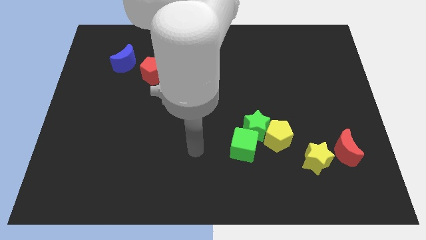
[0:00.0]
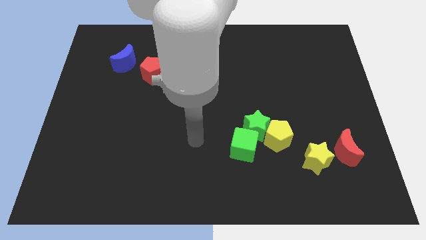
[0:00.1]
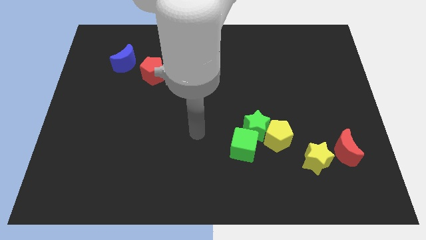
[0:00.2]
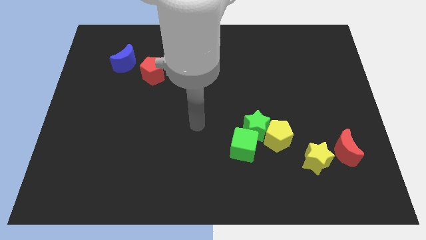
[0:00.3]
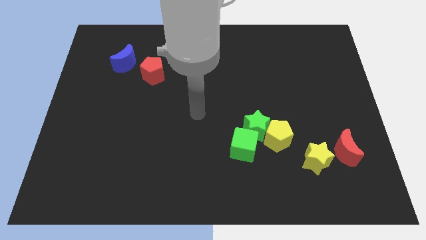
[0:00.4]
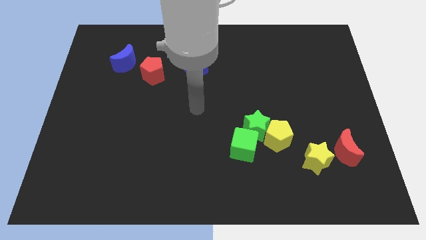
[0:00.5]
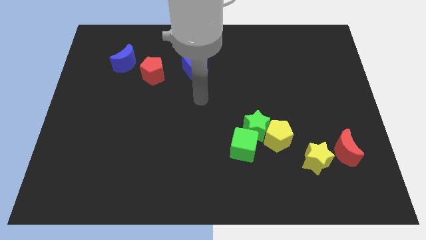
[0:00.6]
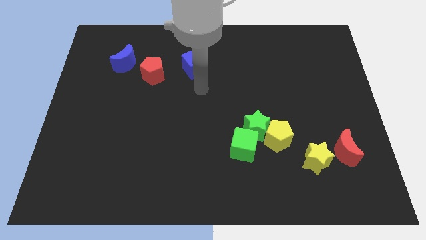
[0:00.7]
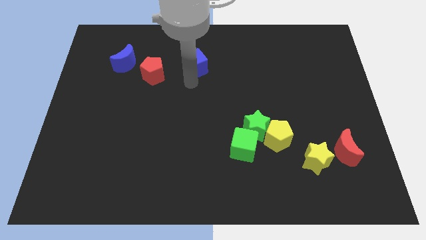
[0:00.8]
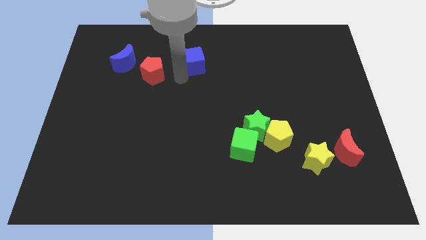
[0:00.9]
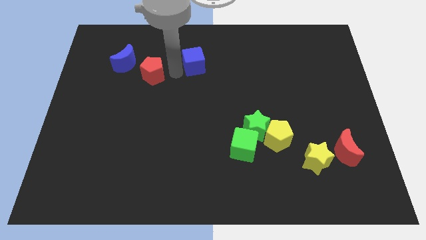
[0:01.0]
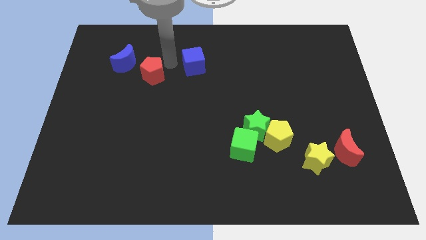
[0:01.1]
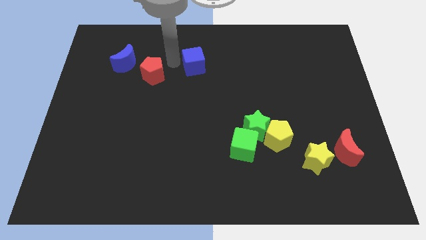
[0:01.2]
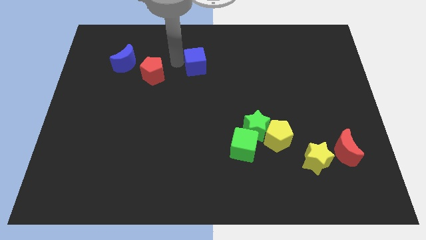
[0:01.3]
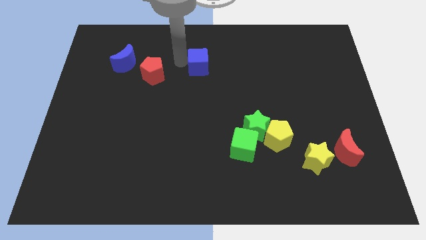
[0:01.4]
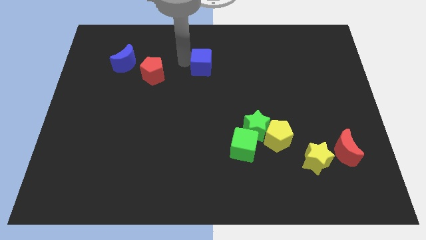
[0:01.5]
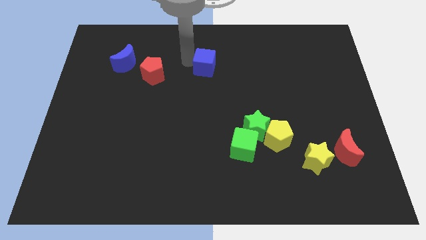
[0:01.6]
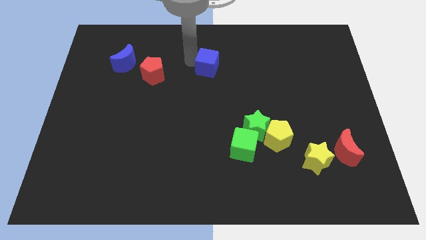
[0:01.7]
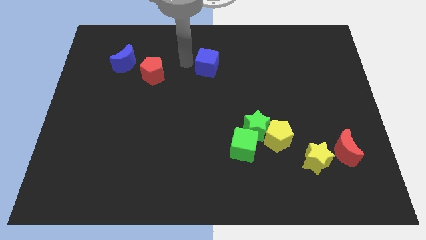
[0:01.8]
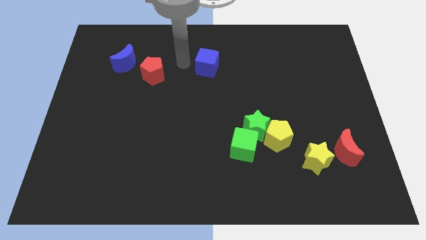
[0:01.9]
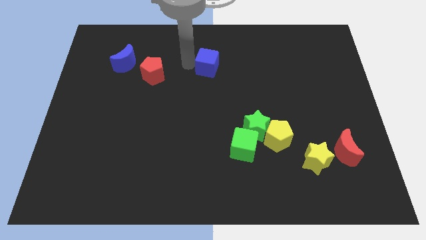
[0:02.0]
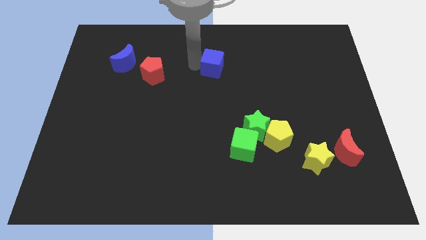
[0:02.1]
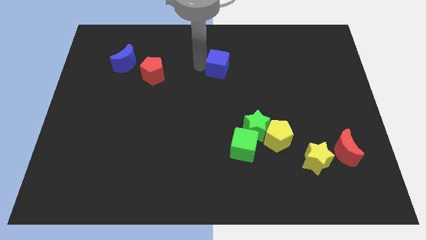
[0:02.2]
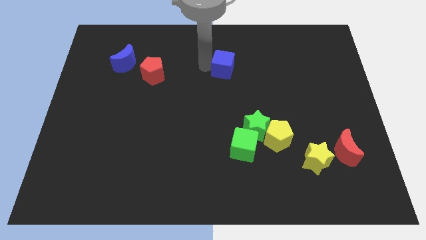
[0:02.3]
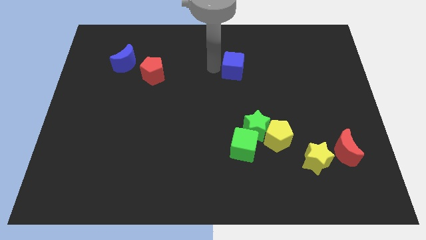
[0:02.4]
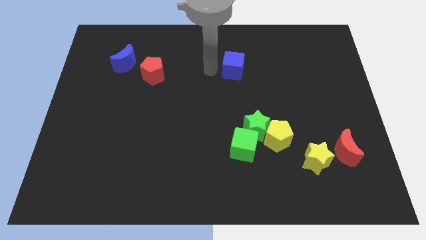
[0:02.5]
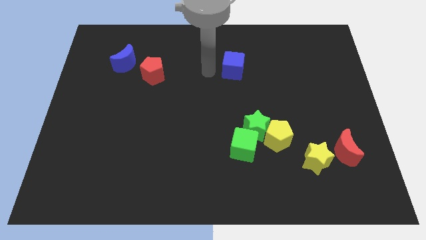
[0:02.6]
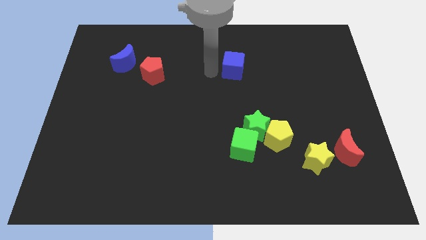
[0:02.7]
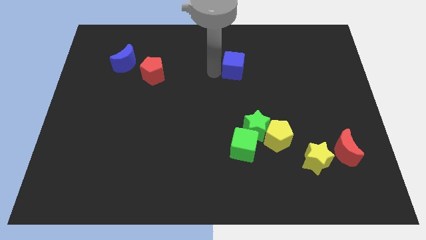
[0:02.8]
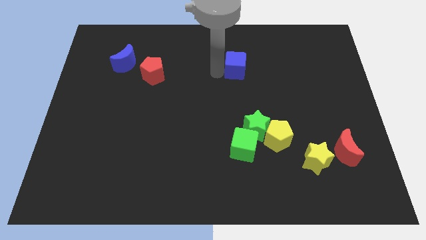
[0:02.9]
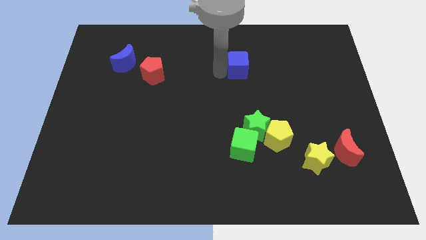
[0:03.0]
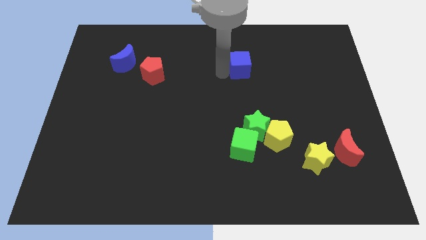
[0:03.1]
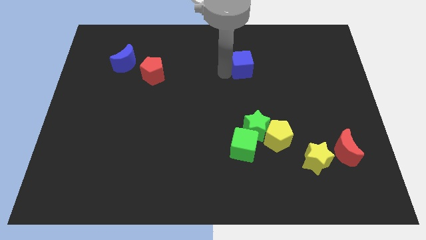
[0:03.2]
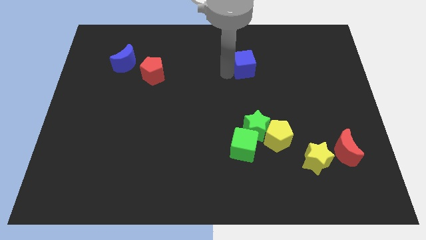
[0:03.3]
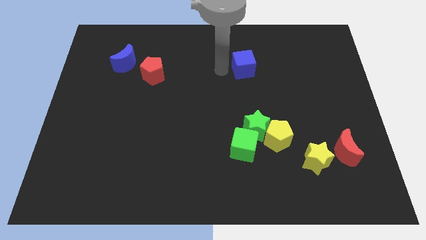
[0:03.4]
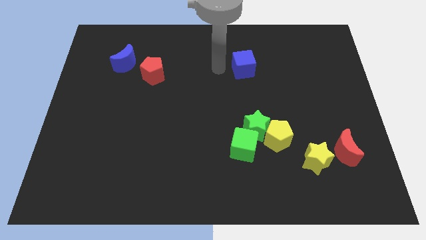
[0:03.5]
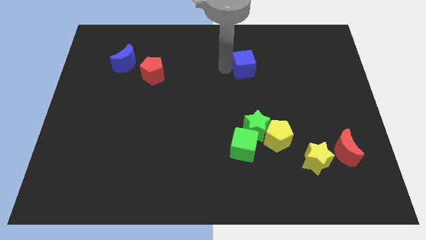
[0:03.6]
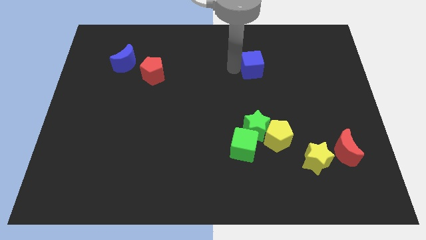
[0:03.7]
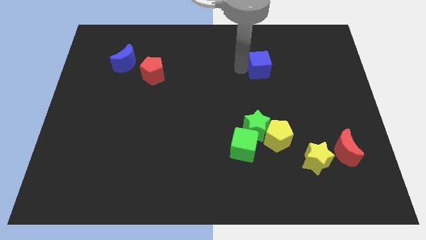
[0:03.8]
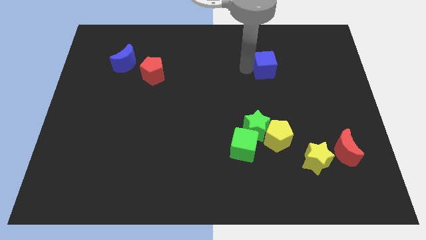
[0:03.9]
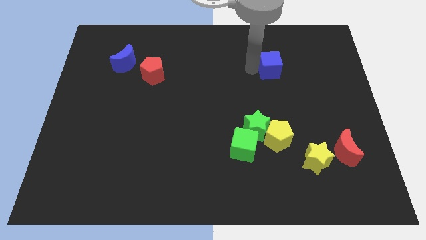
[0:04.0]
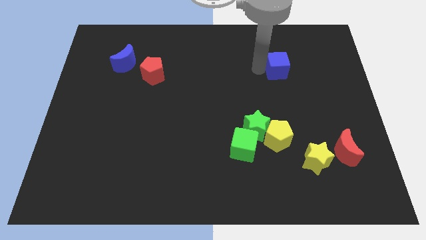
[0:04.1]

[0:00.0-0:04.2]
move the blue cube to the right

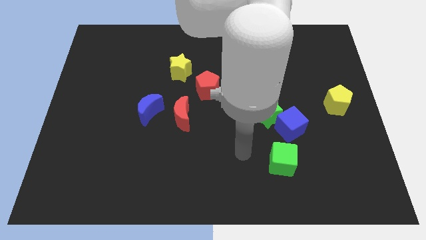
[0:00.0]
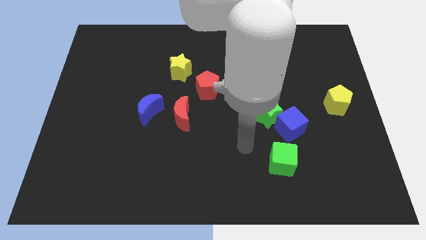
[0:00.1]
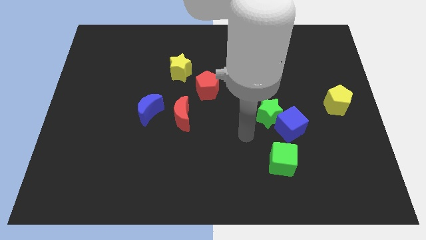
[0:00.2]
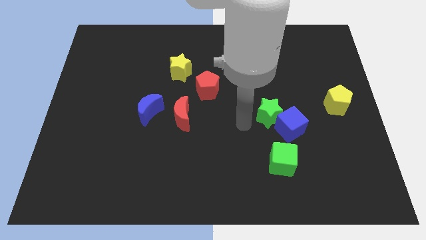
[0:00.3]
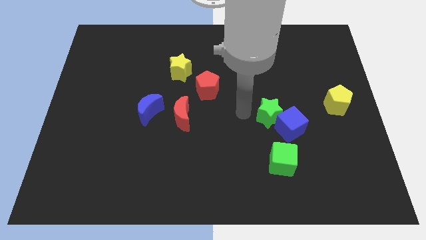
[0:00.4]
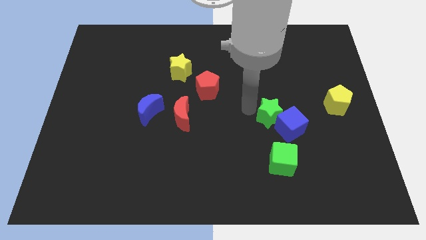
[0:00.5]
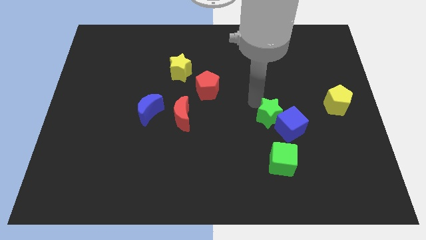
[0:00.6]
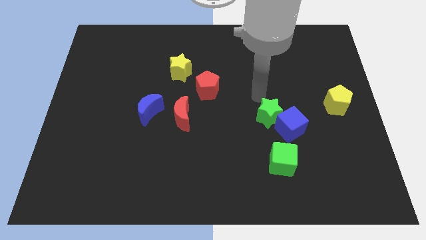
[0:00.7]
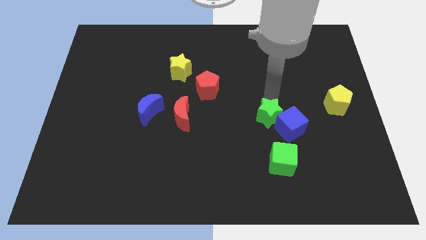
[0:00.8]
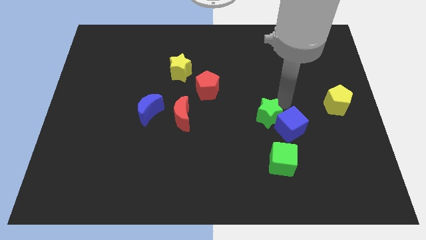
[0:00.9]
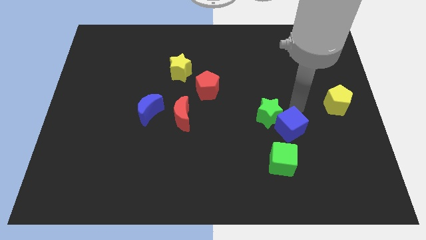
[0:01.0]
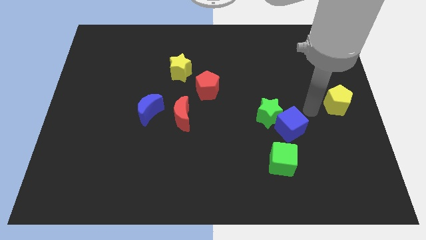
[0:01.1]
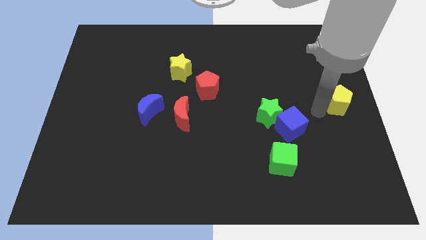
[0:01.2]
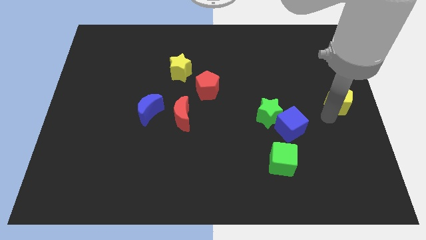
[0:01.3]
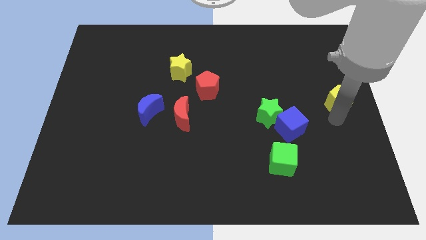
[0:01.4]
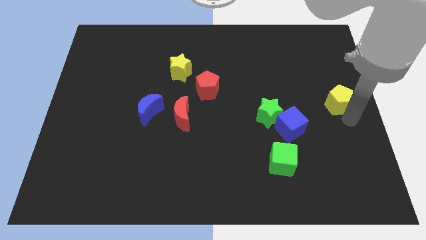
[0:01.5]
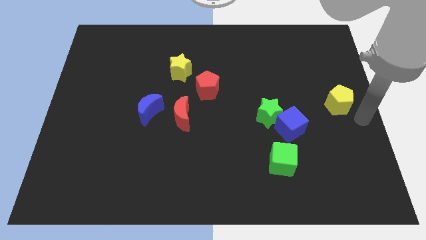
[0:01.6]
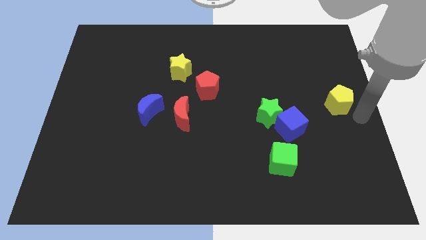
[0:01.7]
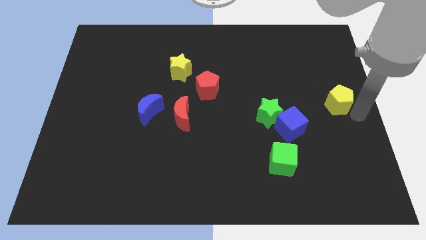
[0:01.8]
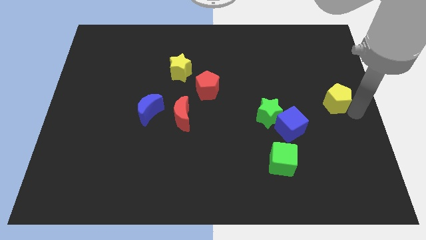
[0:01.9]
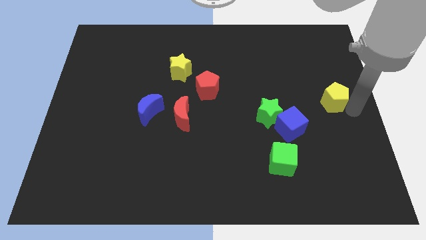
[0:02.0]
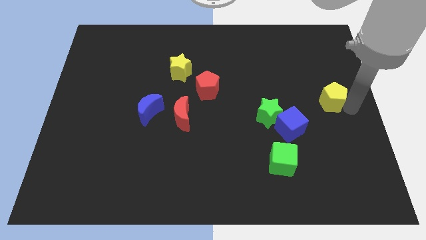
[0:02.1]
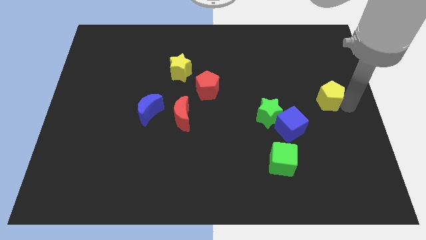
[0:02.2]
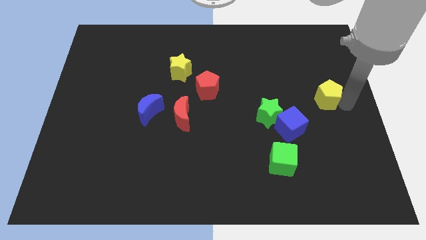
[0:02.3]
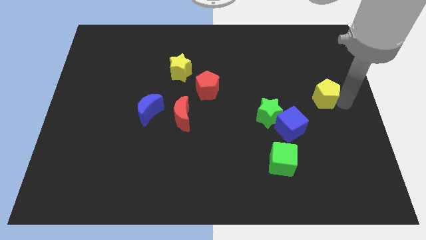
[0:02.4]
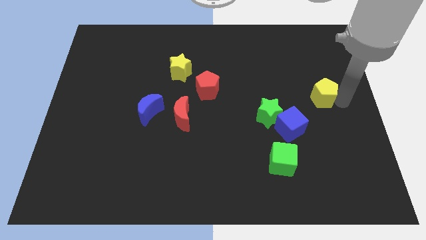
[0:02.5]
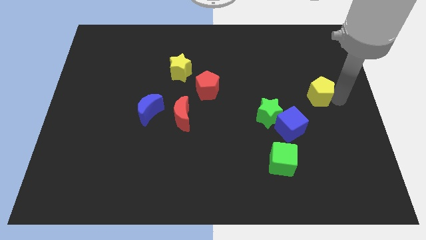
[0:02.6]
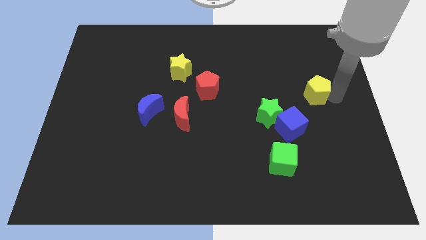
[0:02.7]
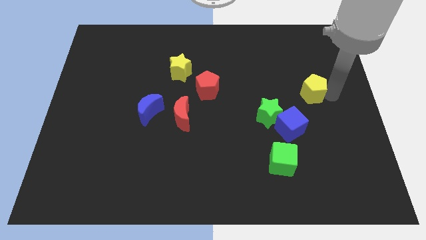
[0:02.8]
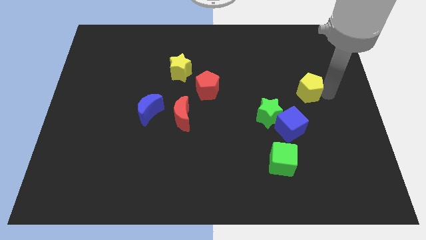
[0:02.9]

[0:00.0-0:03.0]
slightly slide the yellow pentagon diagonally upwards and left

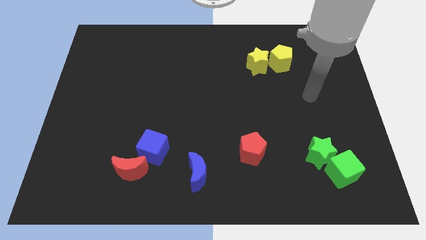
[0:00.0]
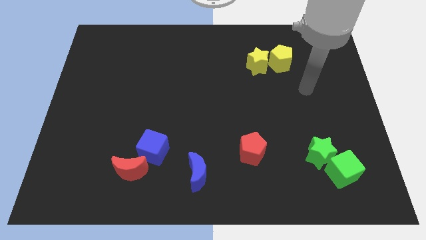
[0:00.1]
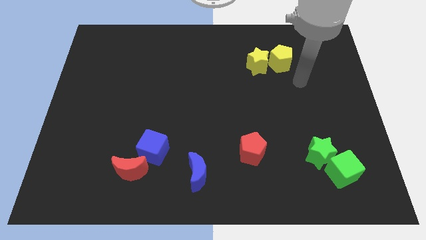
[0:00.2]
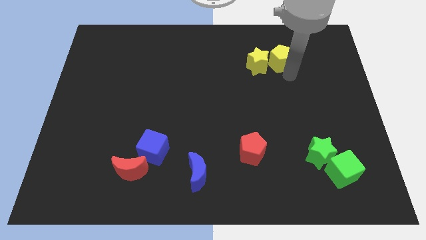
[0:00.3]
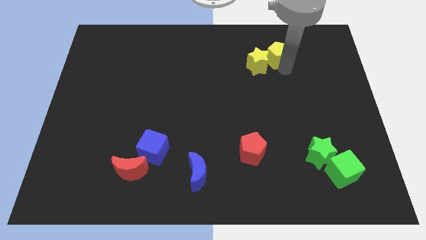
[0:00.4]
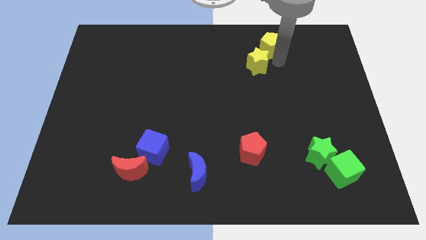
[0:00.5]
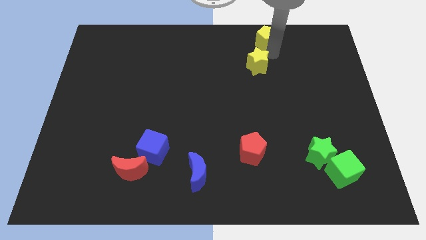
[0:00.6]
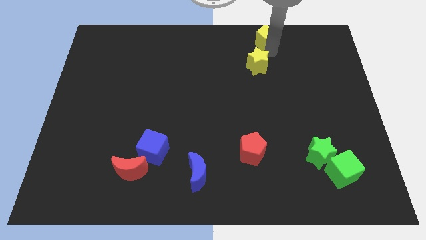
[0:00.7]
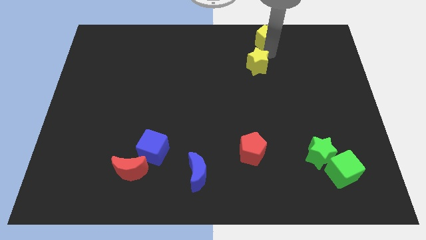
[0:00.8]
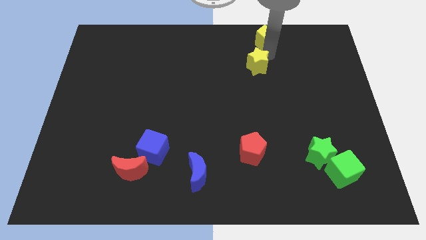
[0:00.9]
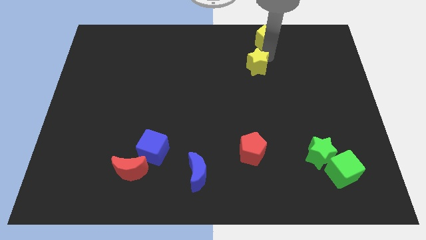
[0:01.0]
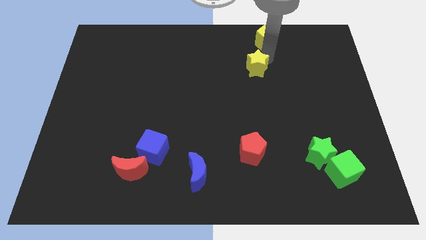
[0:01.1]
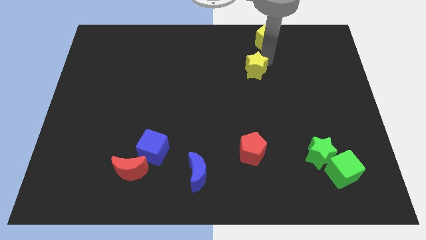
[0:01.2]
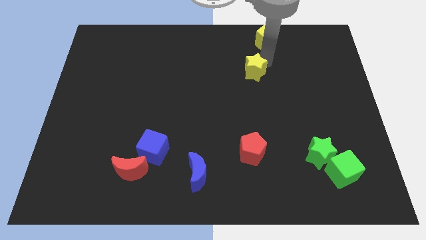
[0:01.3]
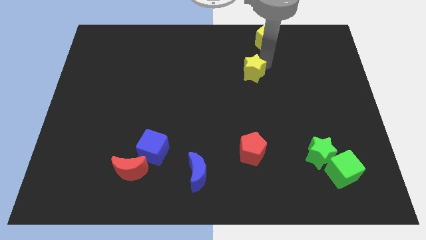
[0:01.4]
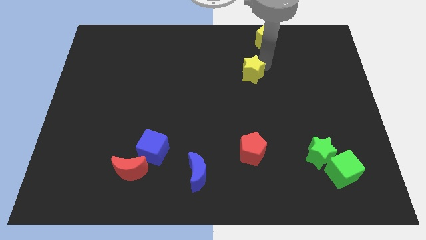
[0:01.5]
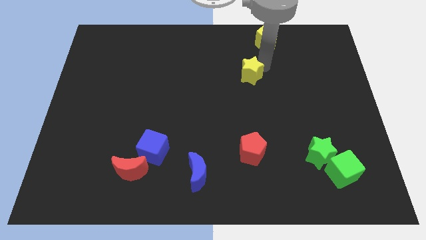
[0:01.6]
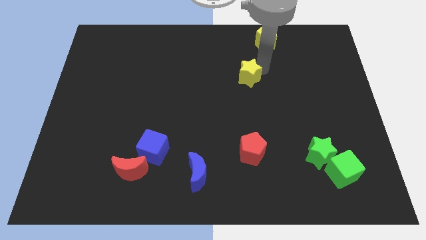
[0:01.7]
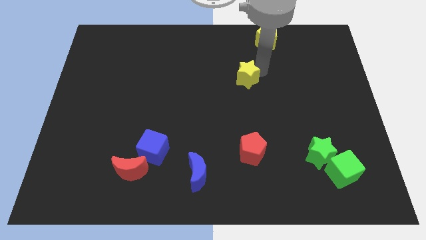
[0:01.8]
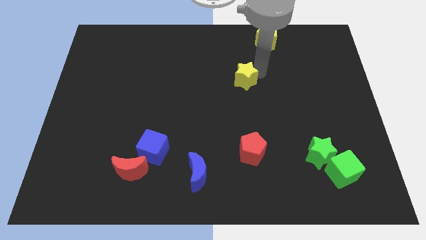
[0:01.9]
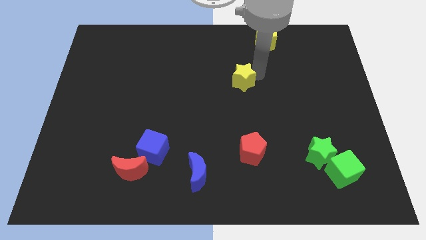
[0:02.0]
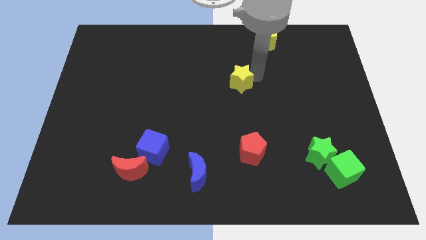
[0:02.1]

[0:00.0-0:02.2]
move the yellow star a little down and to the left
